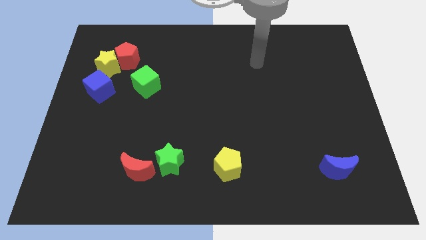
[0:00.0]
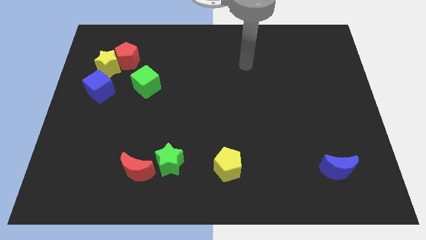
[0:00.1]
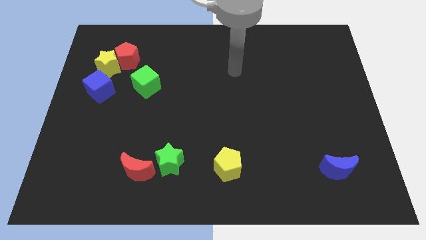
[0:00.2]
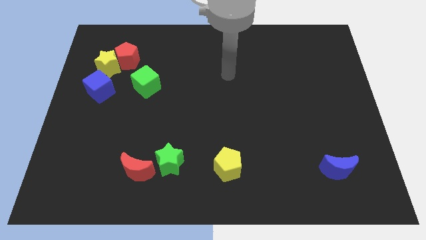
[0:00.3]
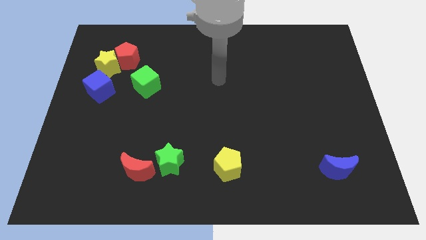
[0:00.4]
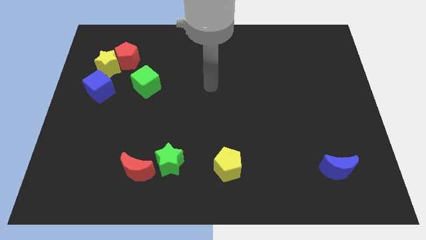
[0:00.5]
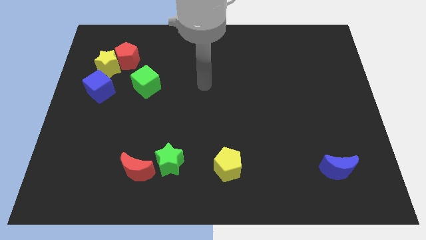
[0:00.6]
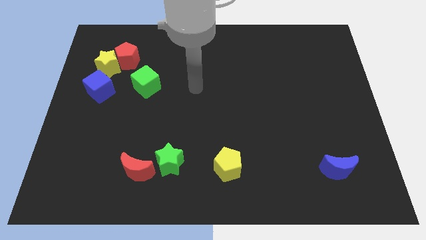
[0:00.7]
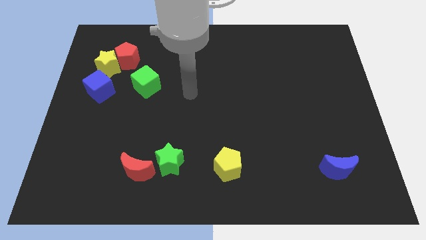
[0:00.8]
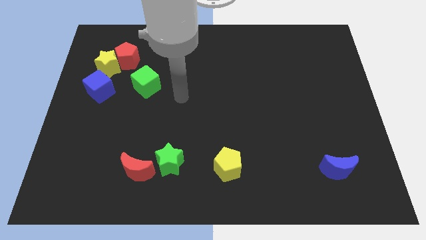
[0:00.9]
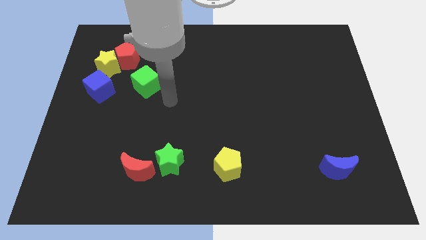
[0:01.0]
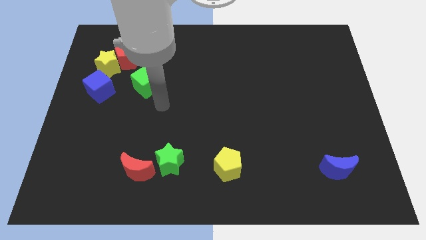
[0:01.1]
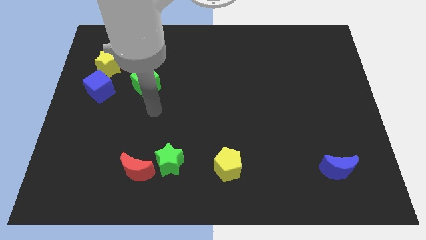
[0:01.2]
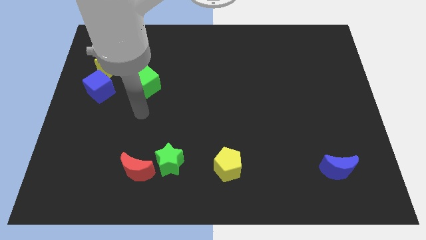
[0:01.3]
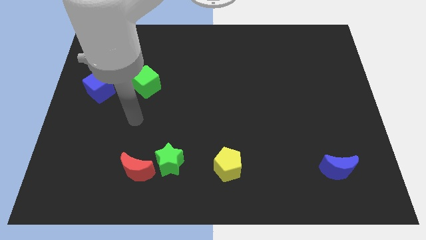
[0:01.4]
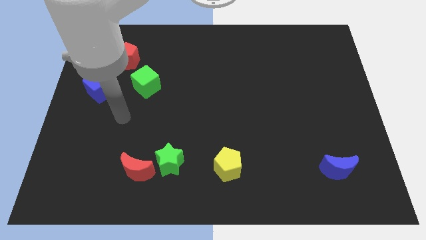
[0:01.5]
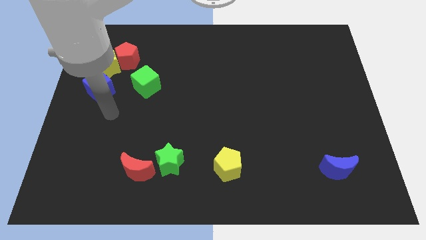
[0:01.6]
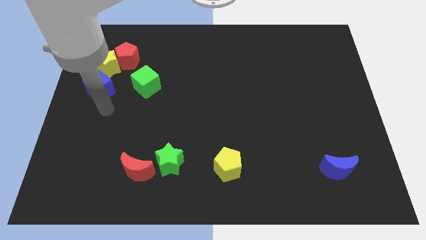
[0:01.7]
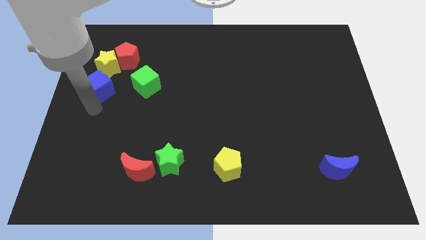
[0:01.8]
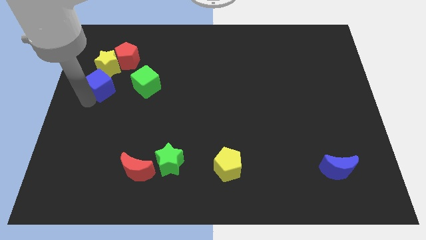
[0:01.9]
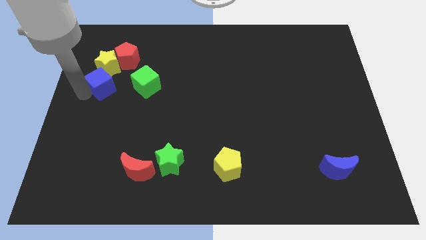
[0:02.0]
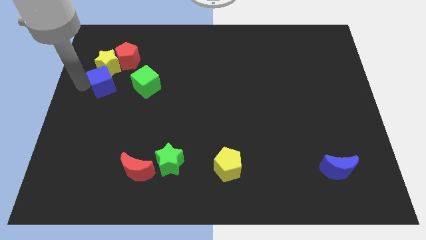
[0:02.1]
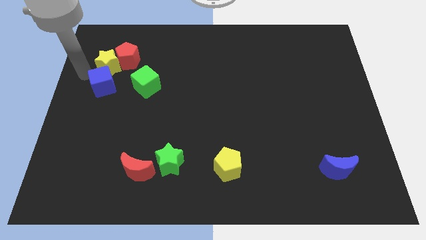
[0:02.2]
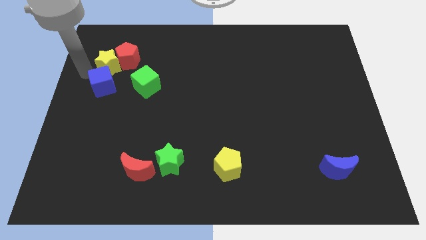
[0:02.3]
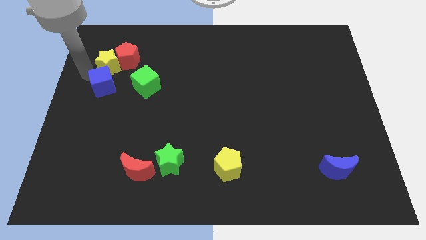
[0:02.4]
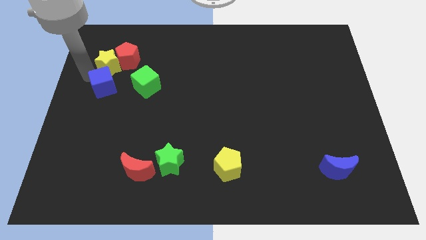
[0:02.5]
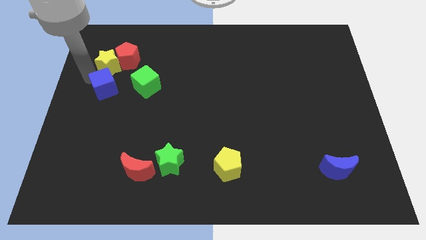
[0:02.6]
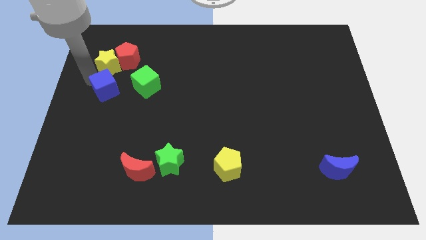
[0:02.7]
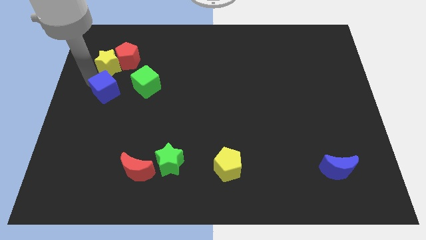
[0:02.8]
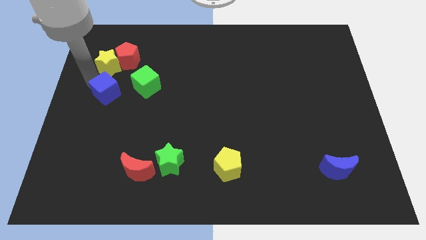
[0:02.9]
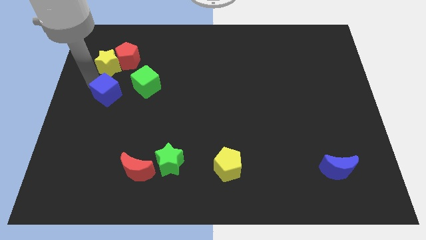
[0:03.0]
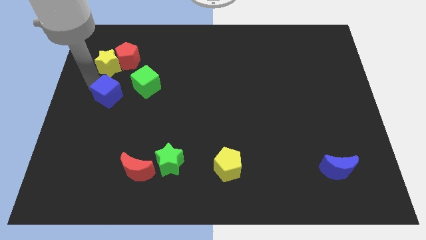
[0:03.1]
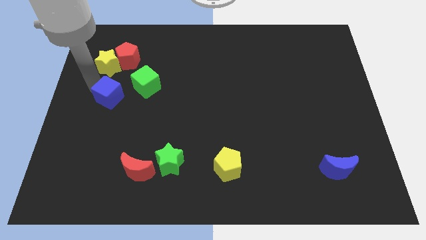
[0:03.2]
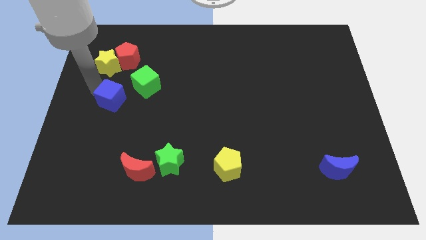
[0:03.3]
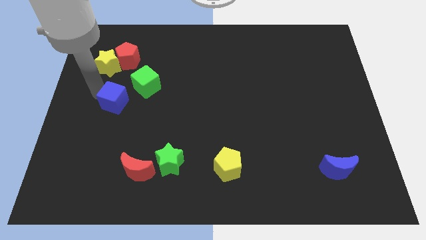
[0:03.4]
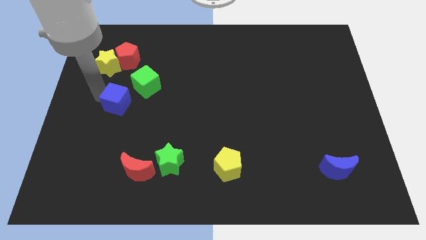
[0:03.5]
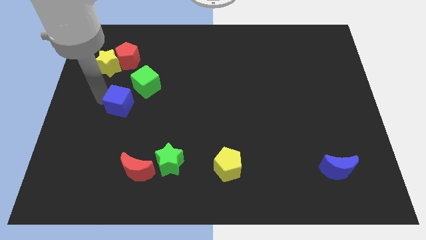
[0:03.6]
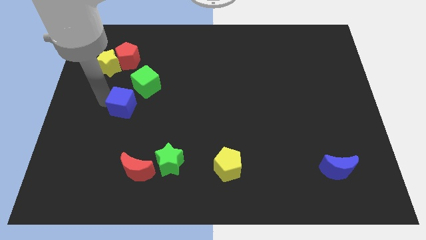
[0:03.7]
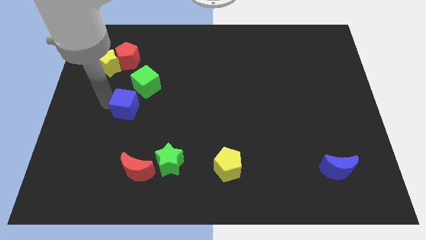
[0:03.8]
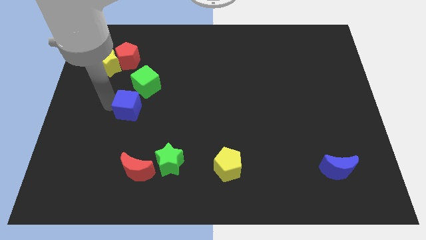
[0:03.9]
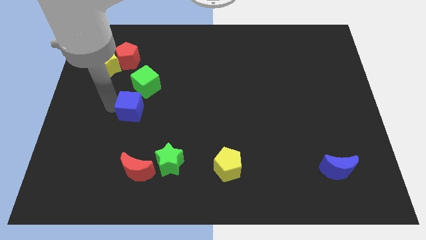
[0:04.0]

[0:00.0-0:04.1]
slightly move the blue cube to the right

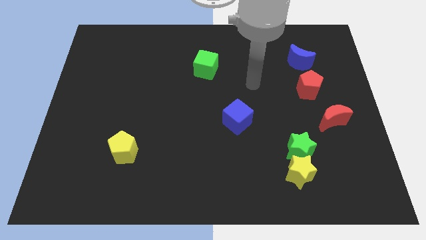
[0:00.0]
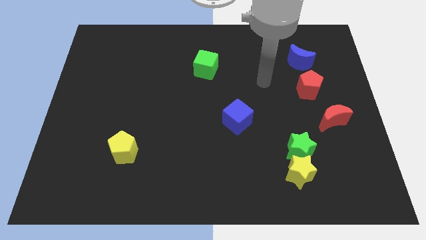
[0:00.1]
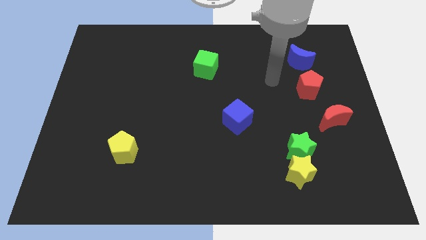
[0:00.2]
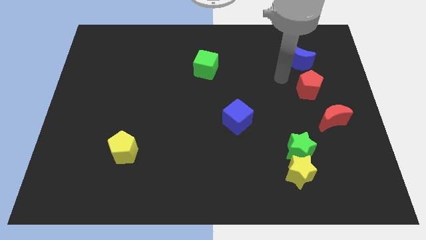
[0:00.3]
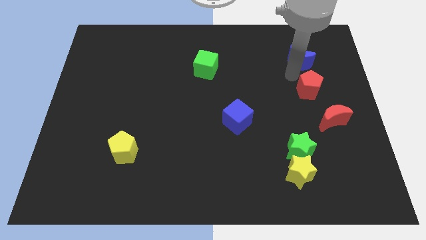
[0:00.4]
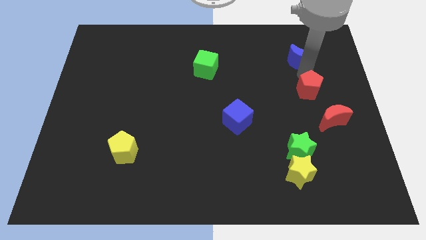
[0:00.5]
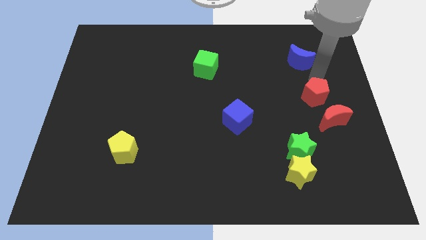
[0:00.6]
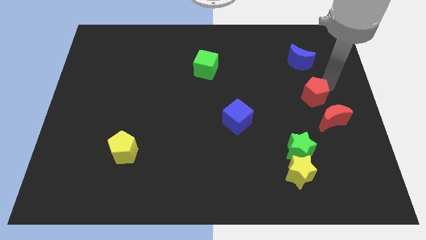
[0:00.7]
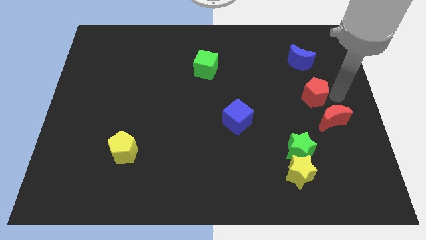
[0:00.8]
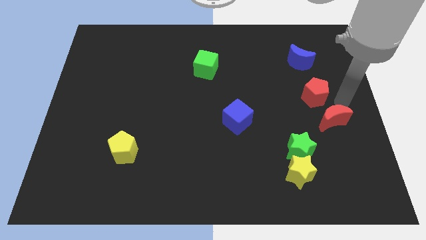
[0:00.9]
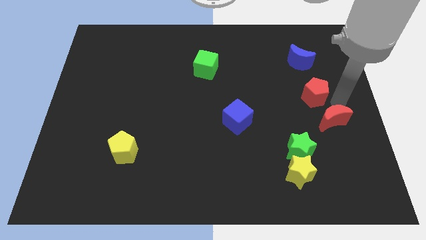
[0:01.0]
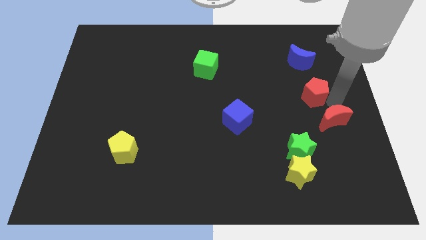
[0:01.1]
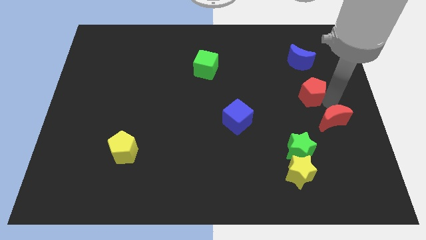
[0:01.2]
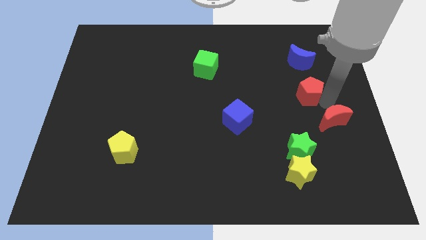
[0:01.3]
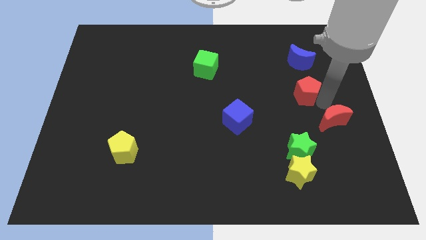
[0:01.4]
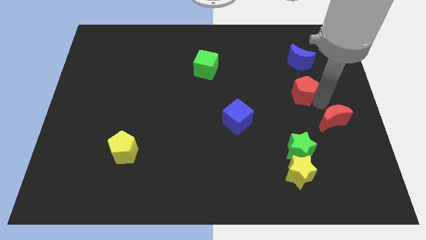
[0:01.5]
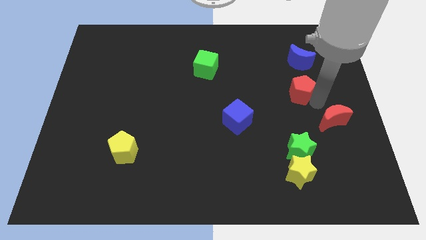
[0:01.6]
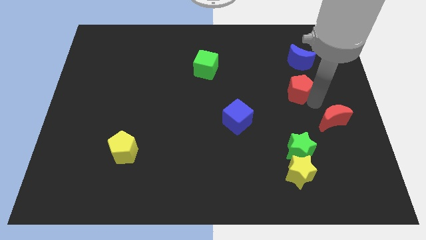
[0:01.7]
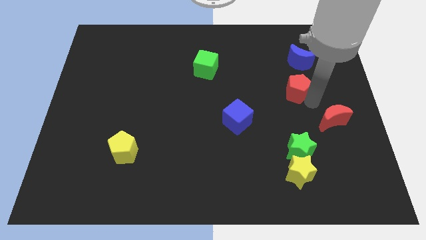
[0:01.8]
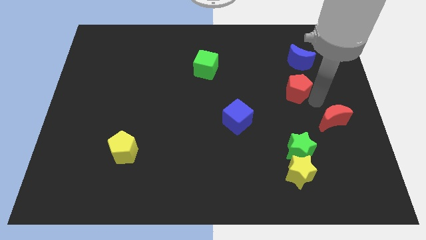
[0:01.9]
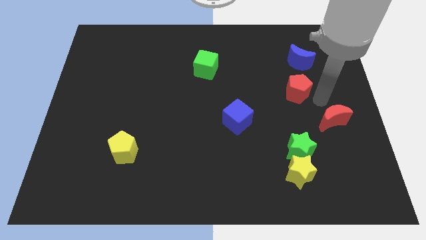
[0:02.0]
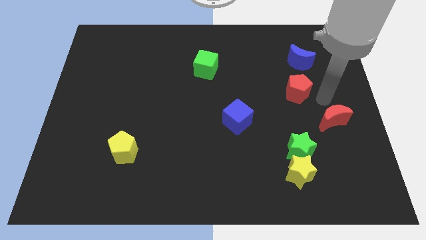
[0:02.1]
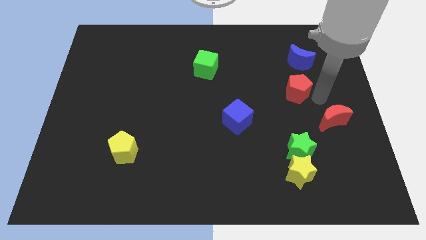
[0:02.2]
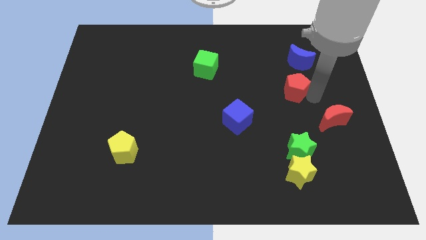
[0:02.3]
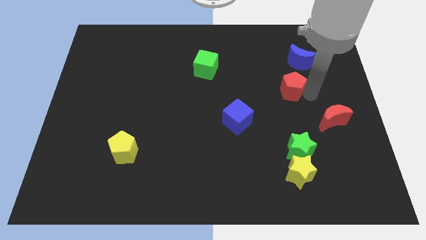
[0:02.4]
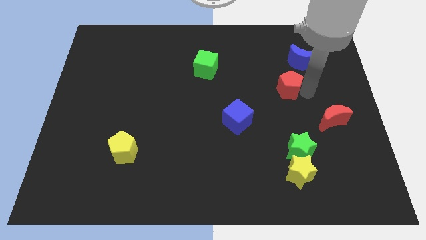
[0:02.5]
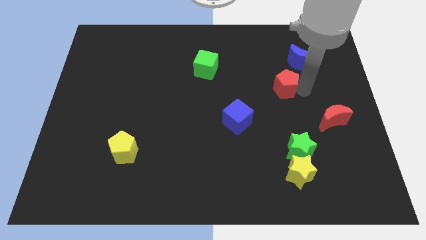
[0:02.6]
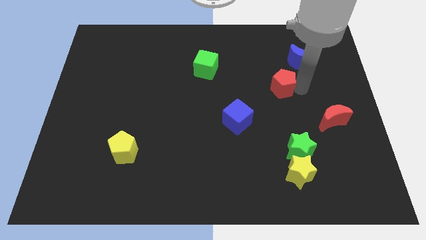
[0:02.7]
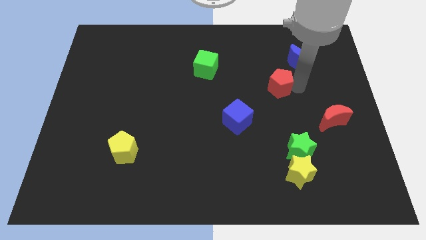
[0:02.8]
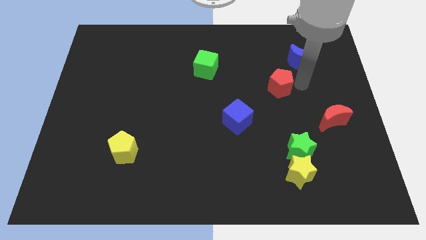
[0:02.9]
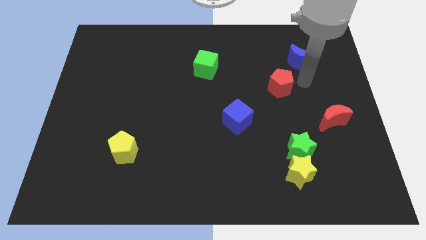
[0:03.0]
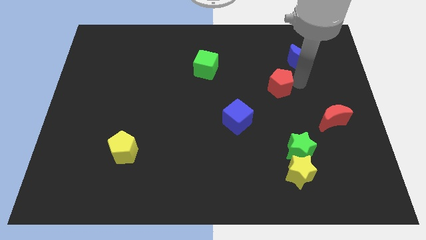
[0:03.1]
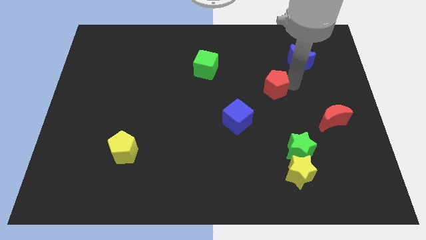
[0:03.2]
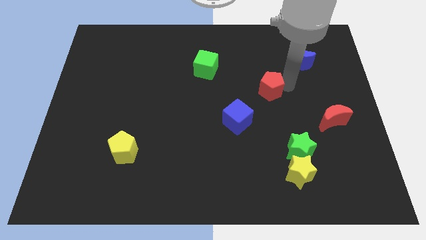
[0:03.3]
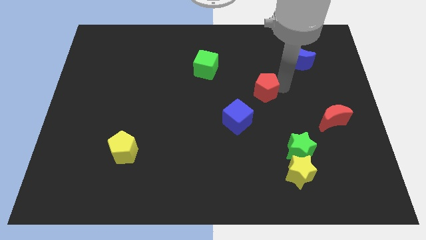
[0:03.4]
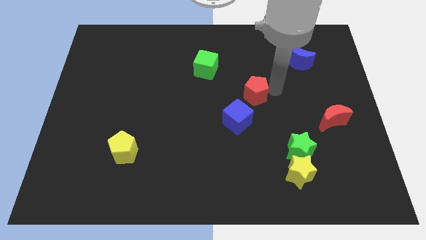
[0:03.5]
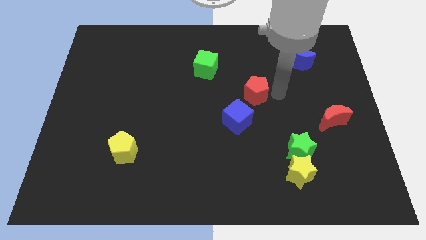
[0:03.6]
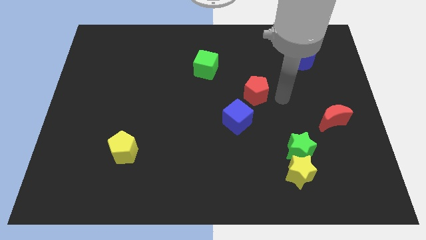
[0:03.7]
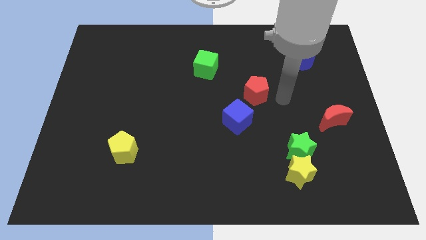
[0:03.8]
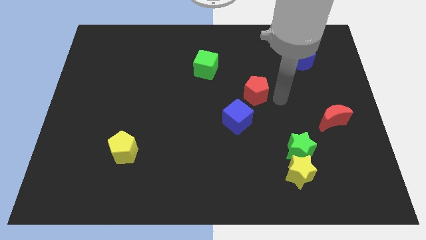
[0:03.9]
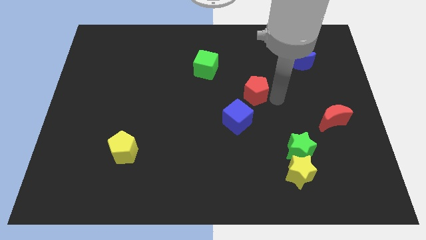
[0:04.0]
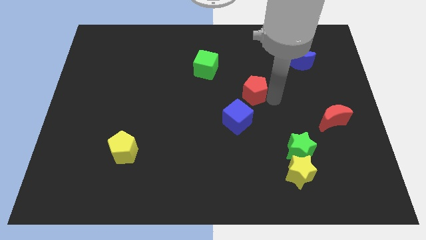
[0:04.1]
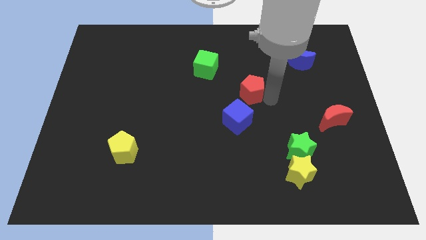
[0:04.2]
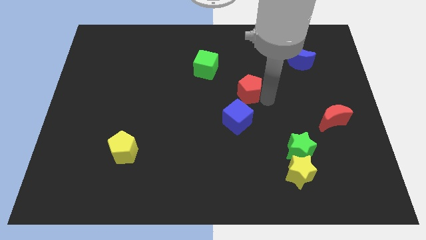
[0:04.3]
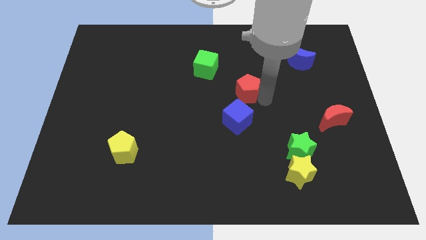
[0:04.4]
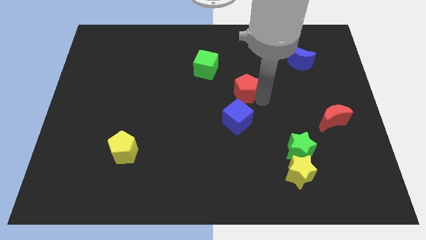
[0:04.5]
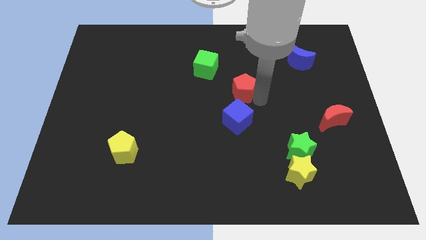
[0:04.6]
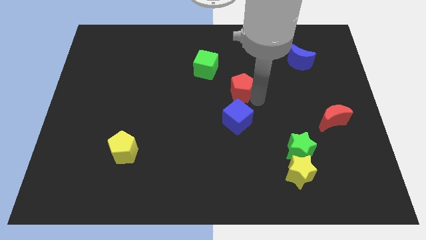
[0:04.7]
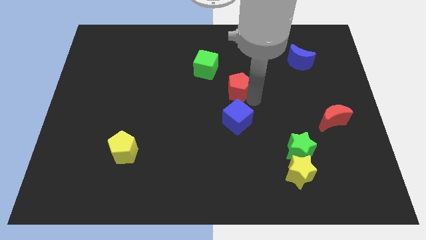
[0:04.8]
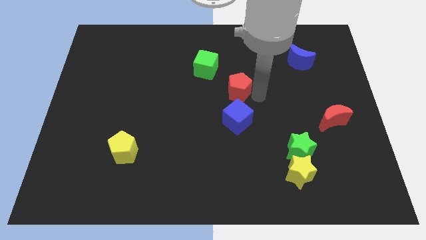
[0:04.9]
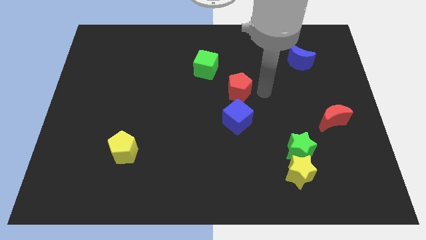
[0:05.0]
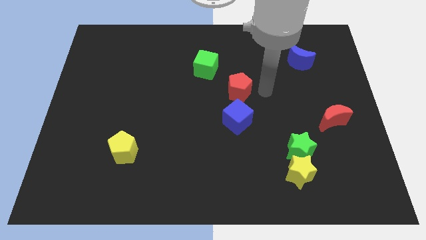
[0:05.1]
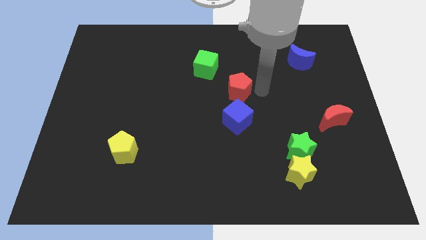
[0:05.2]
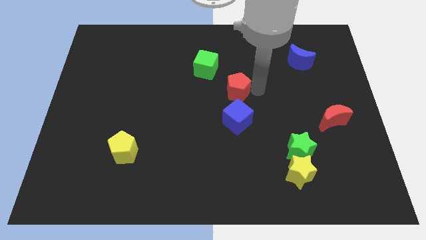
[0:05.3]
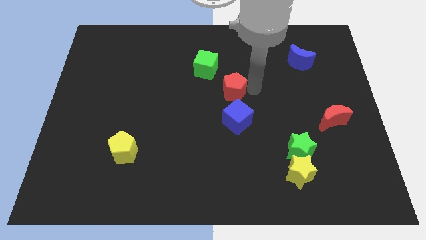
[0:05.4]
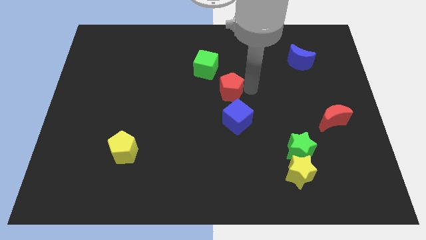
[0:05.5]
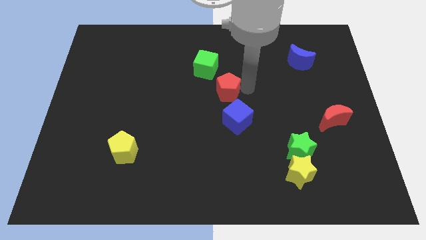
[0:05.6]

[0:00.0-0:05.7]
slide the red pentagon to the left
